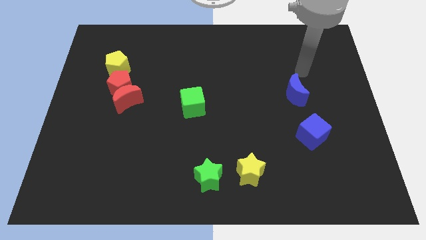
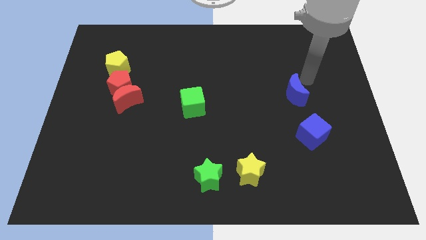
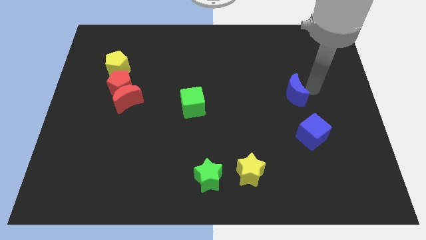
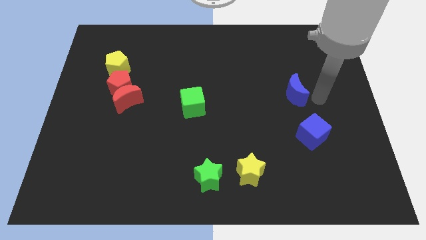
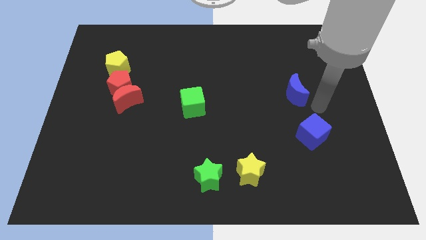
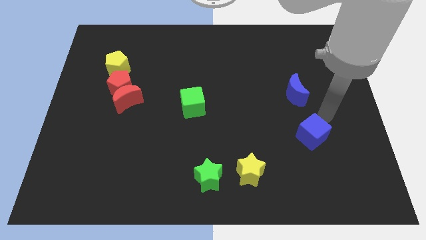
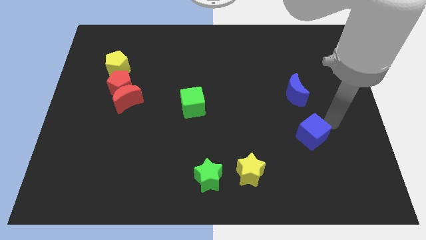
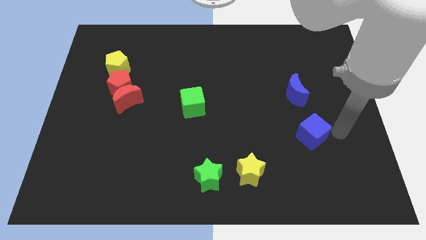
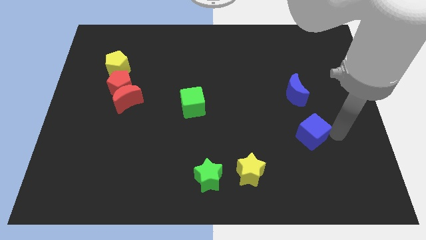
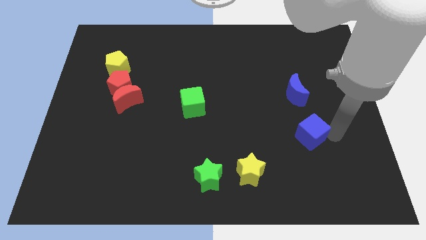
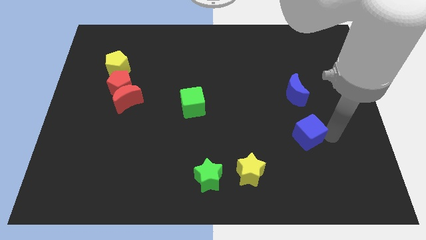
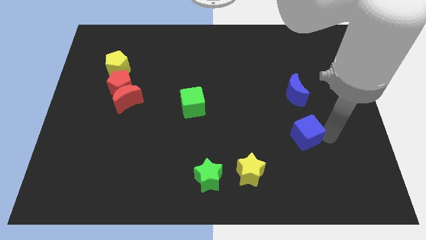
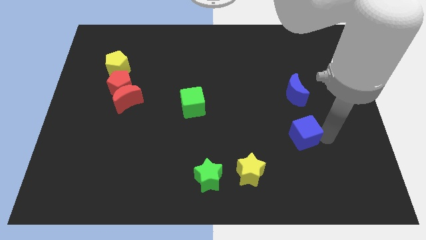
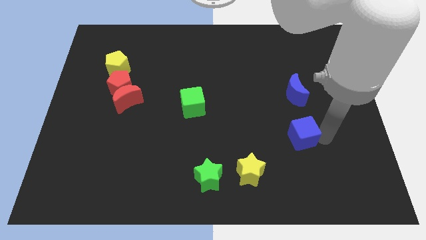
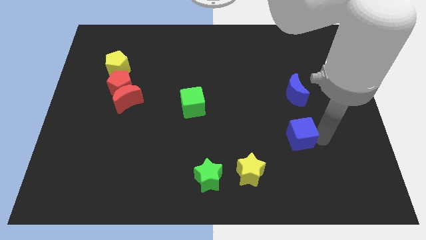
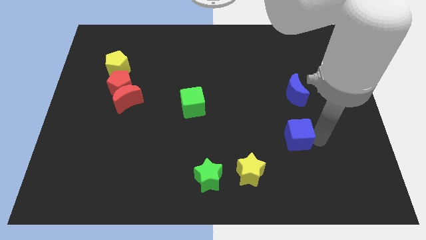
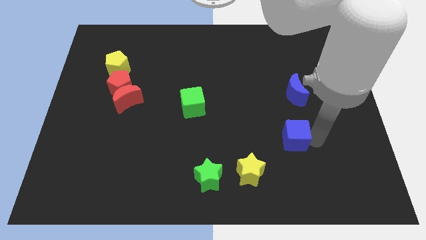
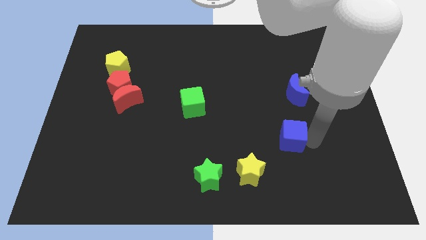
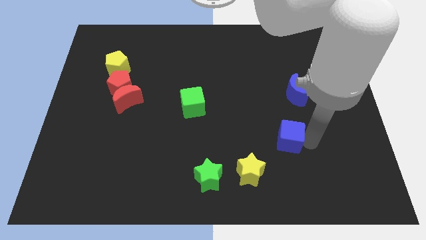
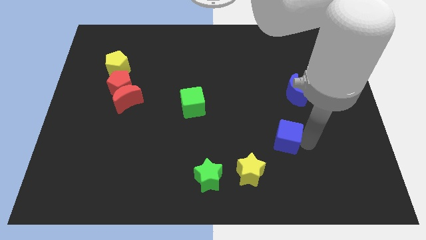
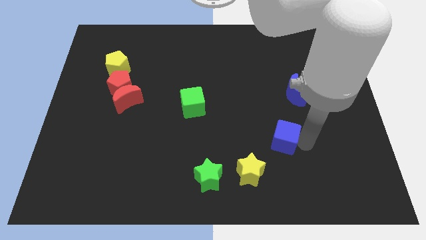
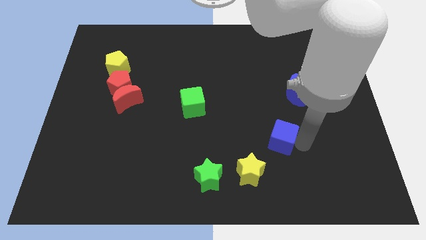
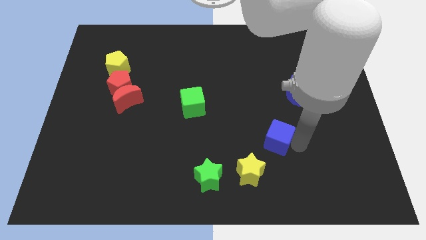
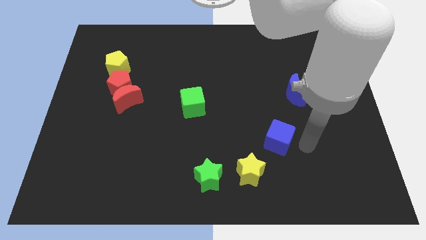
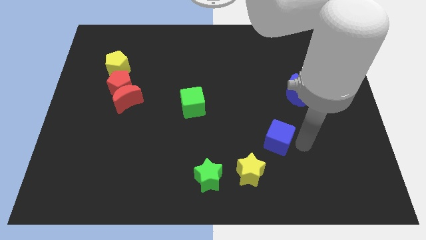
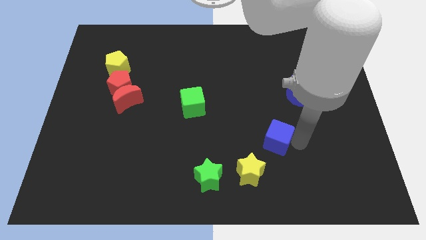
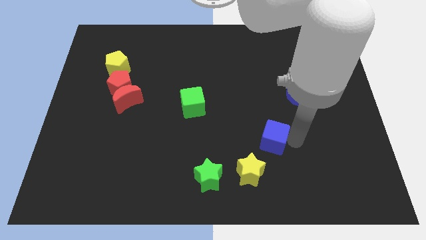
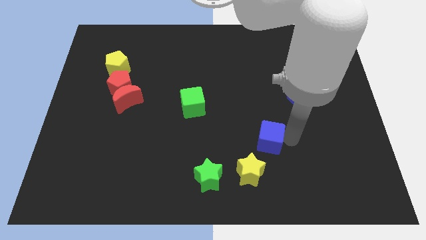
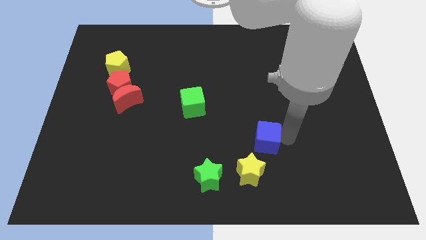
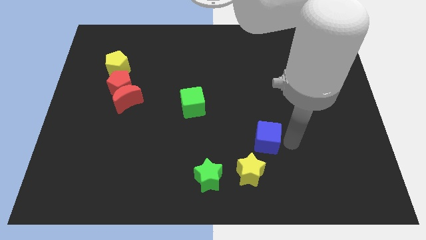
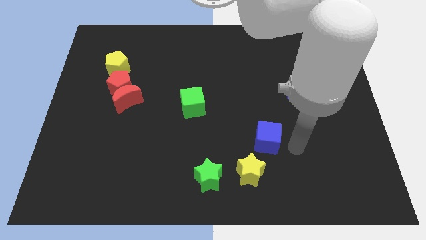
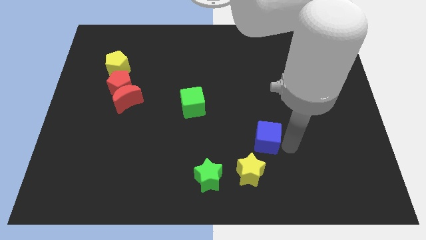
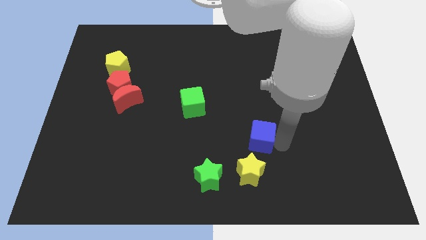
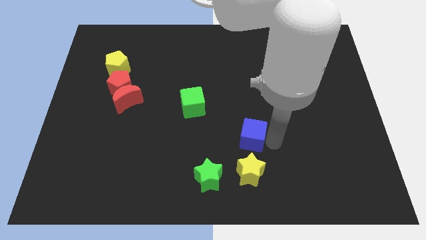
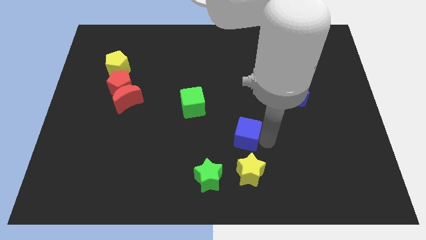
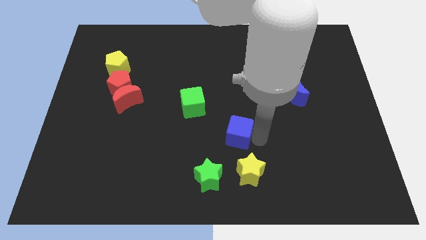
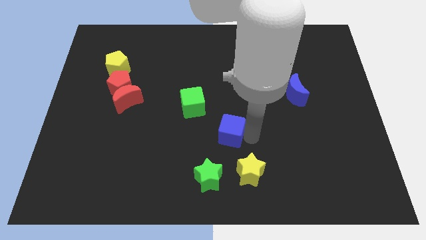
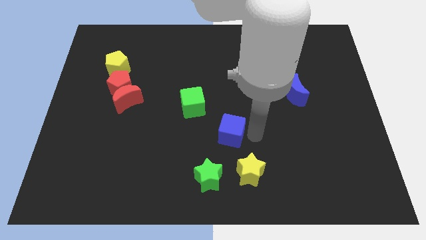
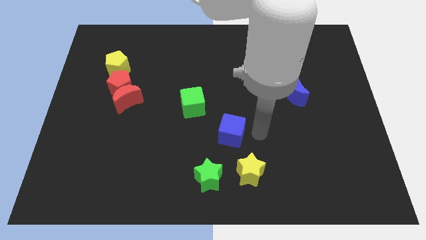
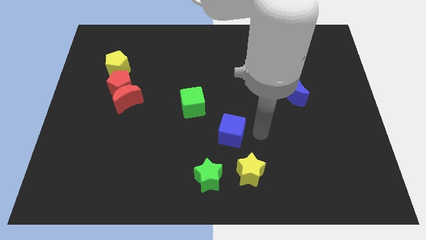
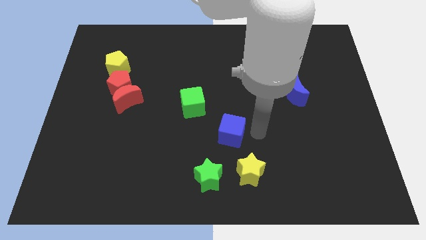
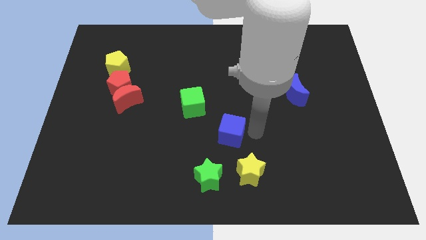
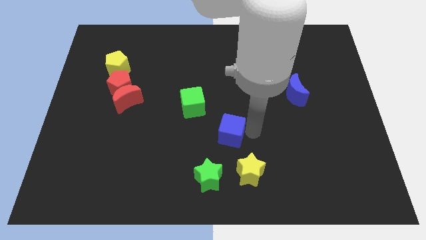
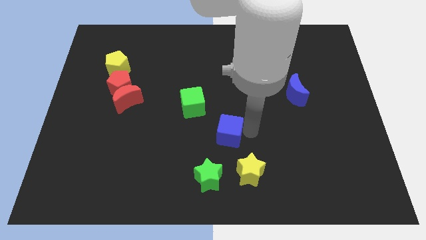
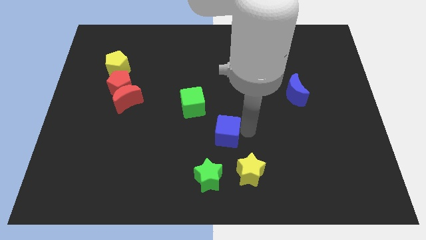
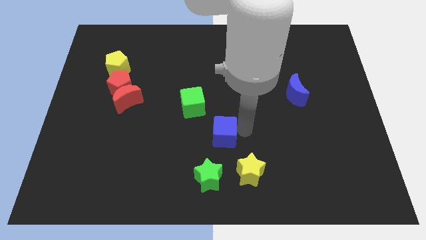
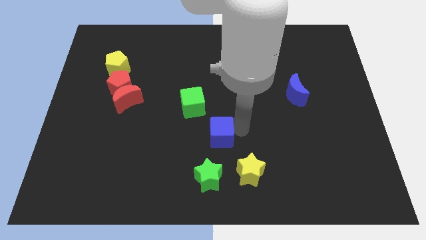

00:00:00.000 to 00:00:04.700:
push the blue cube left

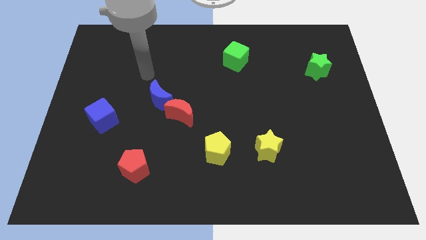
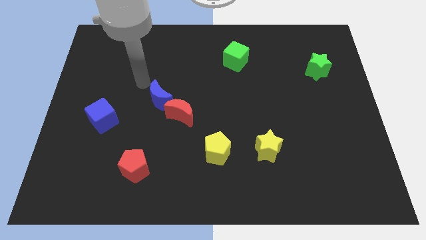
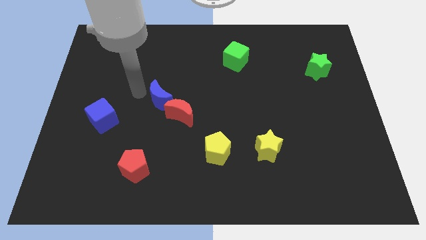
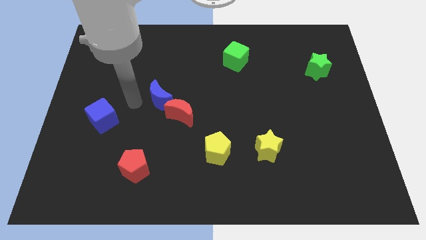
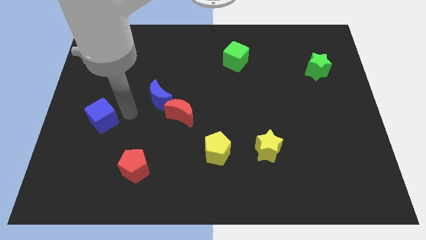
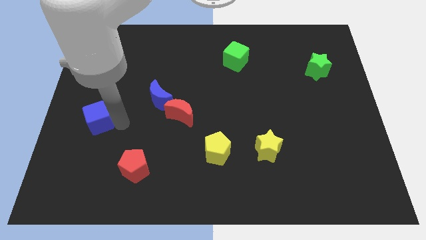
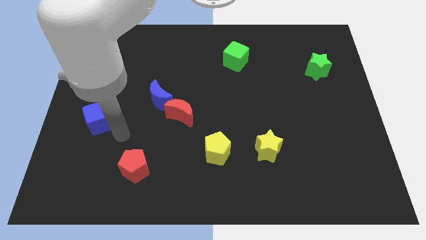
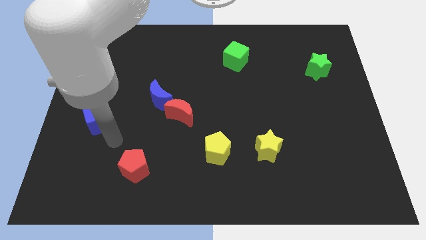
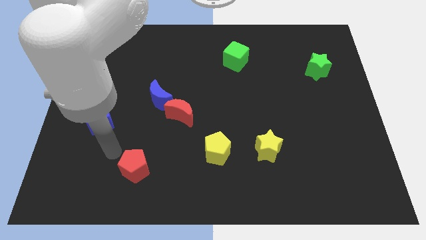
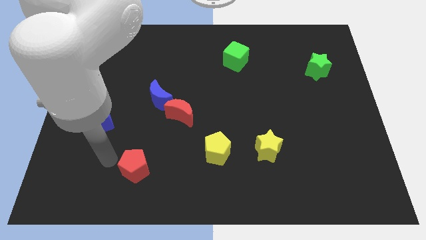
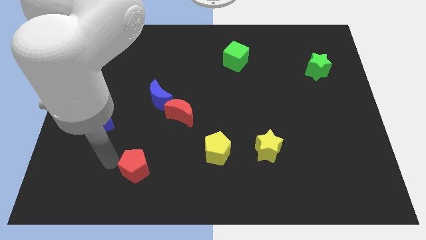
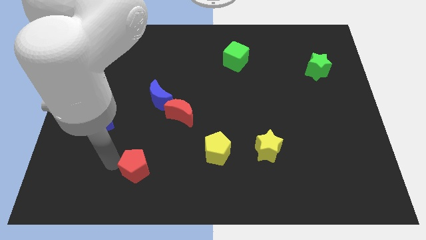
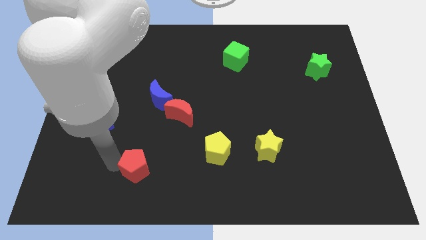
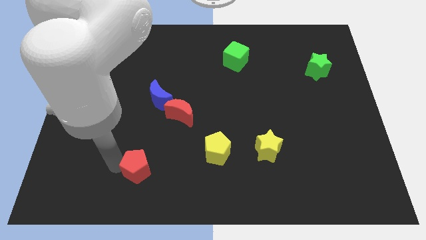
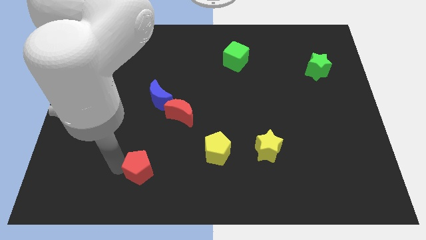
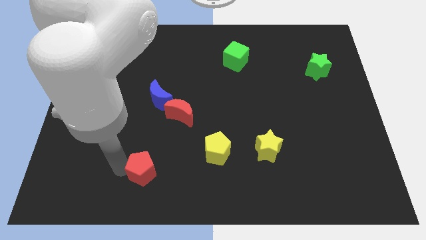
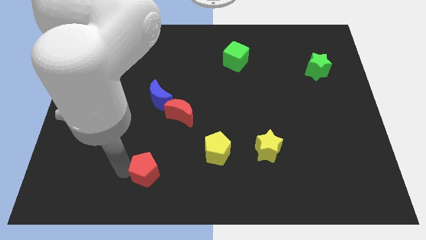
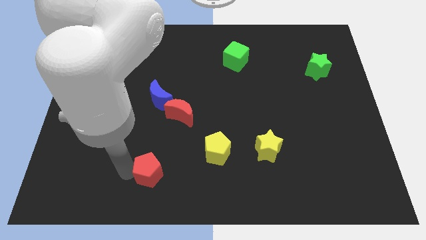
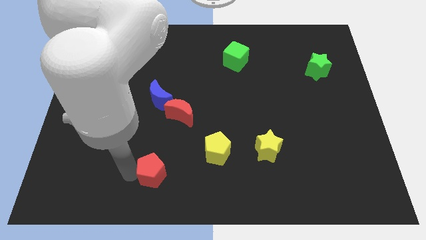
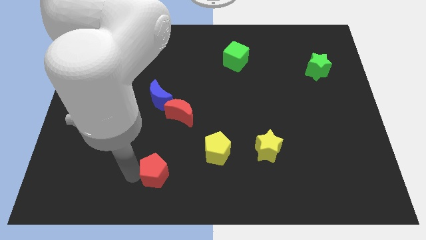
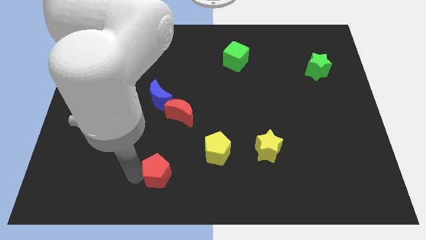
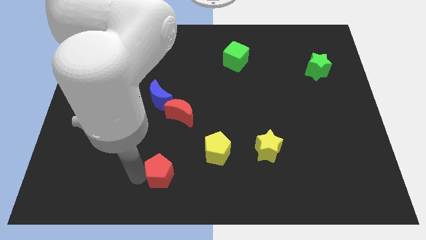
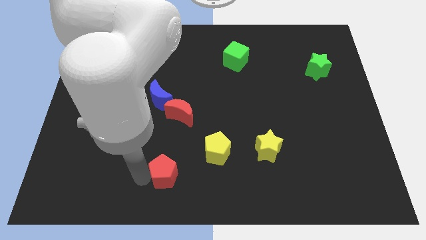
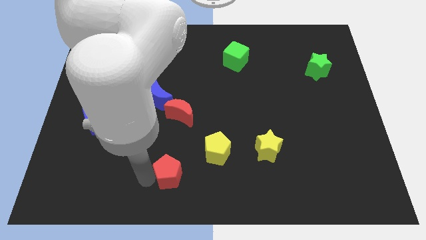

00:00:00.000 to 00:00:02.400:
push the red pentagon slightly to the right

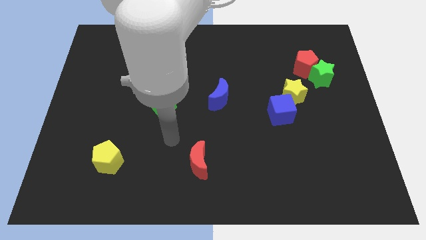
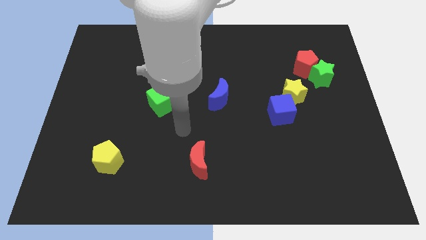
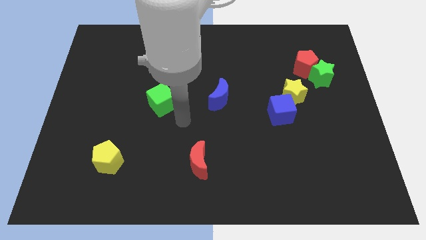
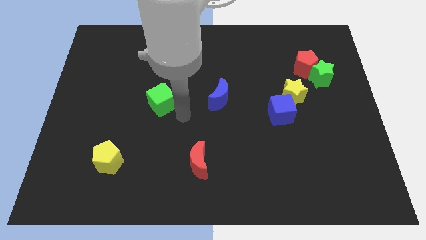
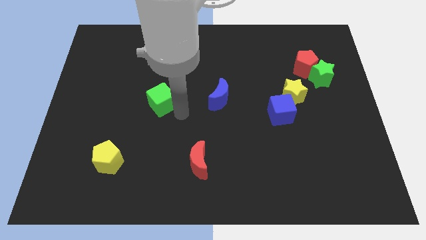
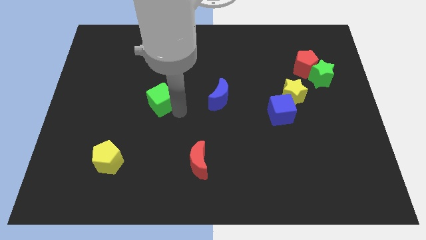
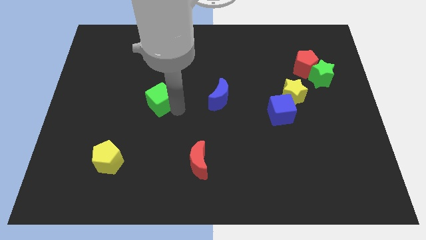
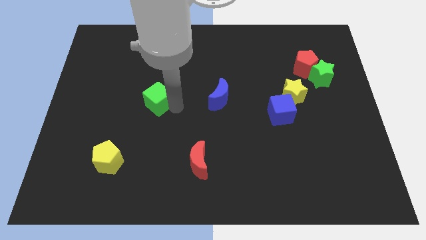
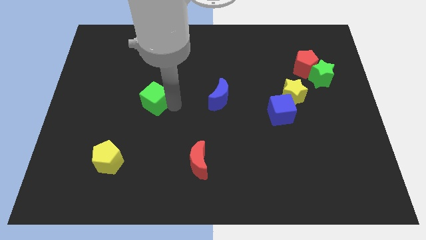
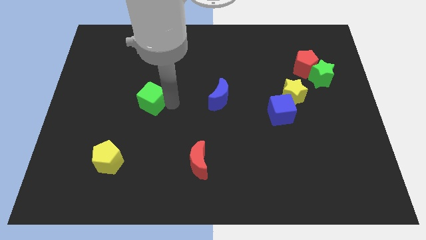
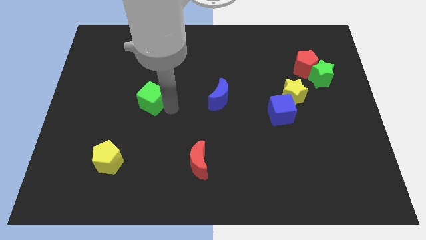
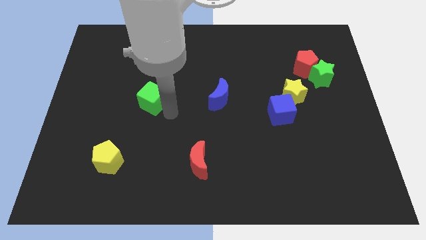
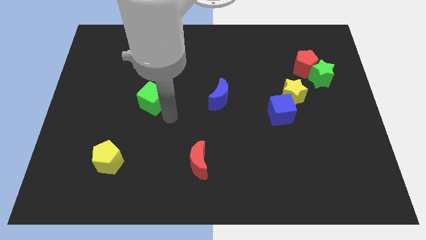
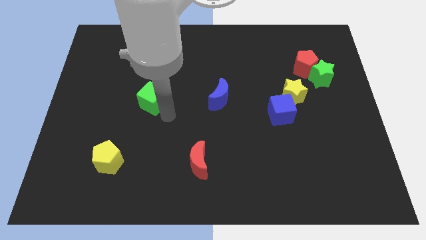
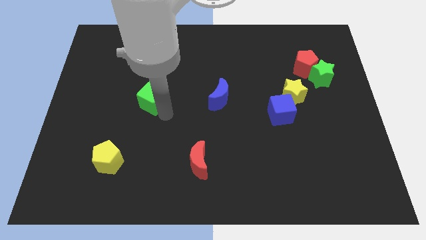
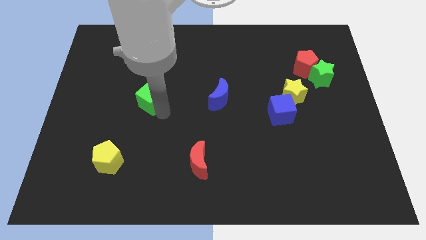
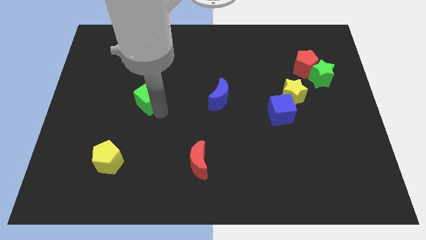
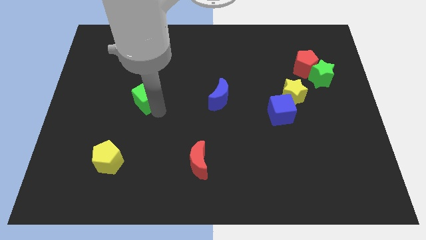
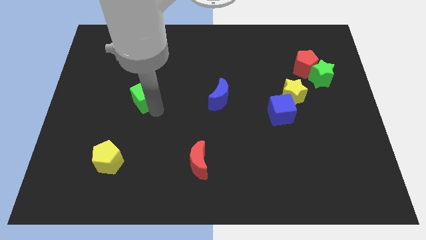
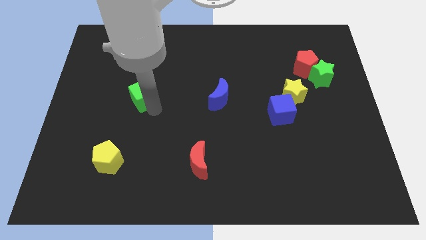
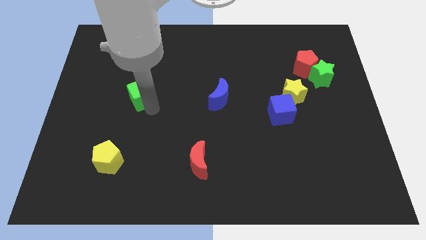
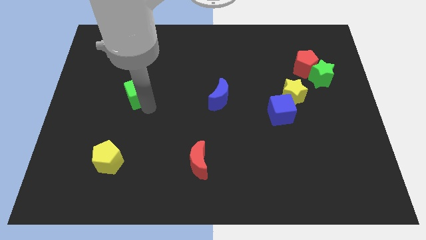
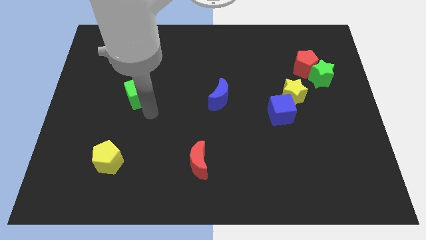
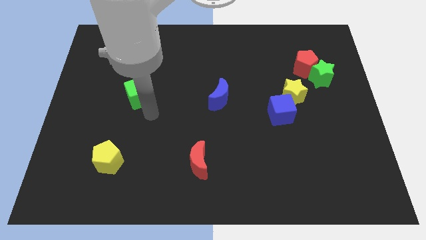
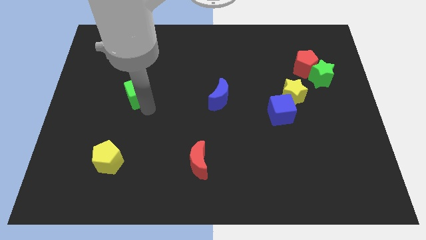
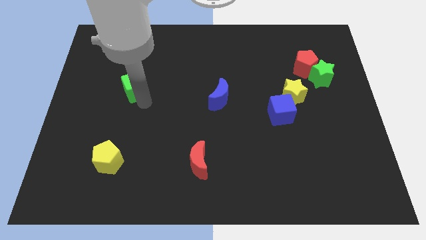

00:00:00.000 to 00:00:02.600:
push the green cube upwards and then to the left somewhat
